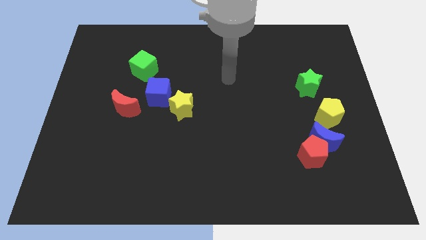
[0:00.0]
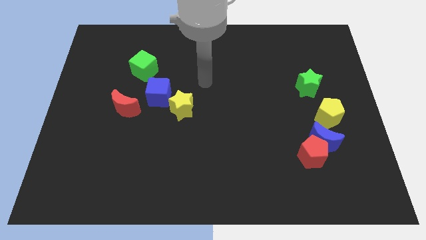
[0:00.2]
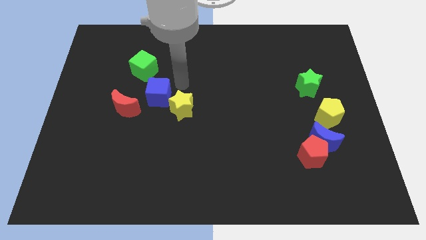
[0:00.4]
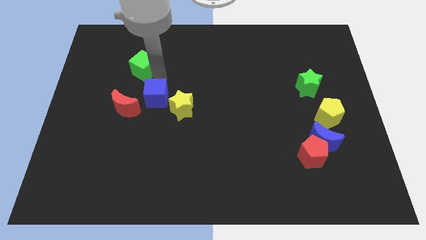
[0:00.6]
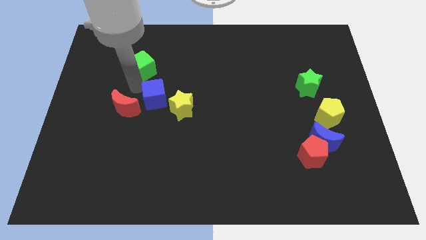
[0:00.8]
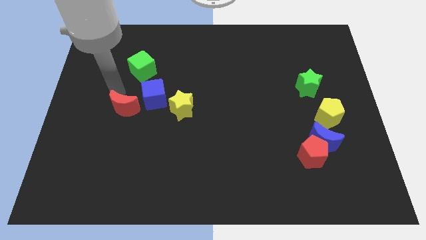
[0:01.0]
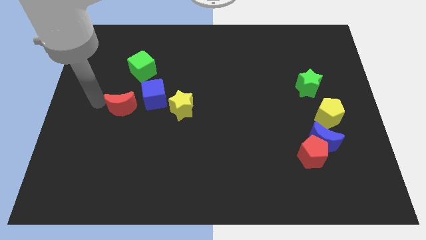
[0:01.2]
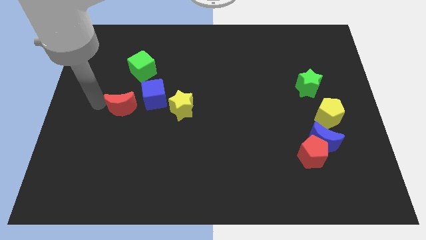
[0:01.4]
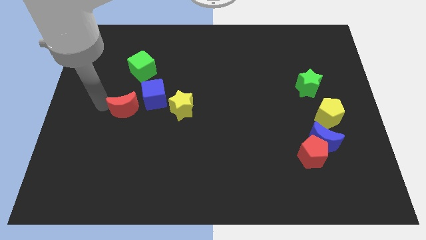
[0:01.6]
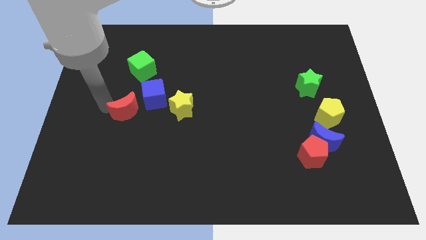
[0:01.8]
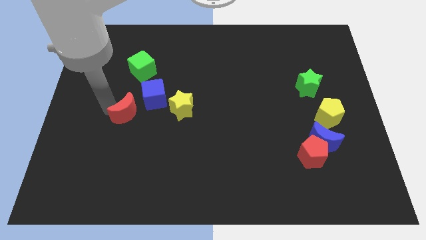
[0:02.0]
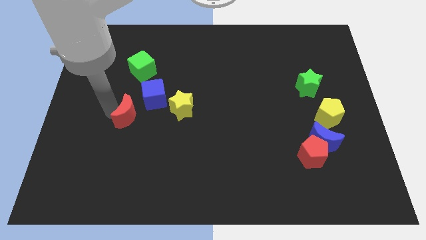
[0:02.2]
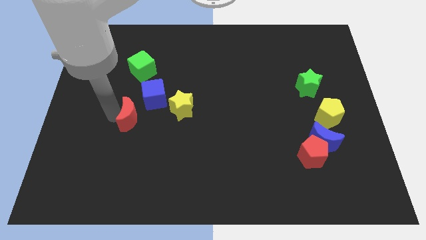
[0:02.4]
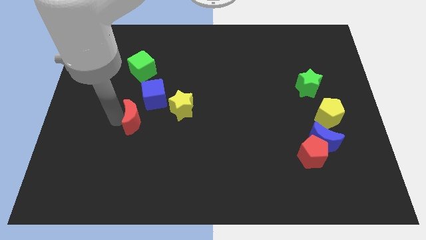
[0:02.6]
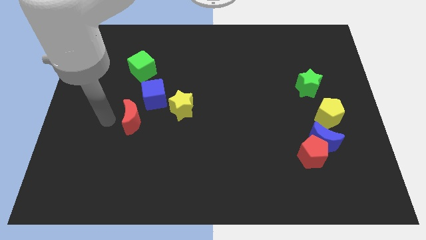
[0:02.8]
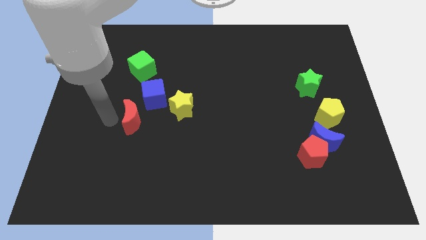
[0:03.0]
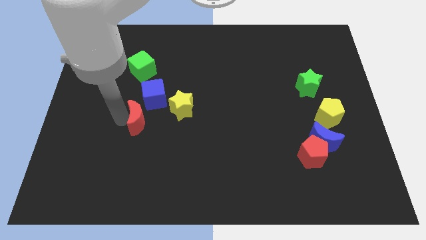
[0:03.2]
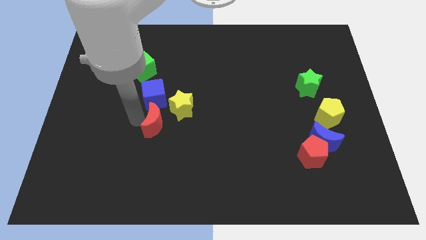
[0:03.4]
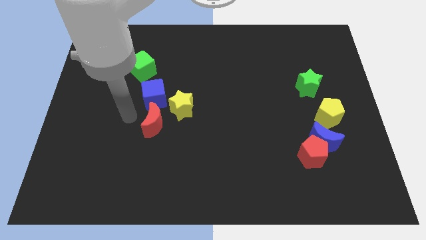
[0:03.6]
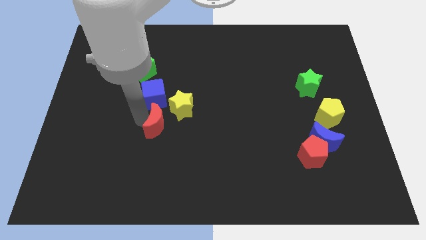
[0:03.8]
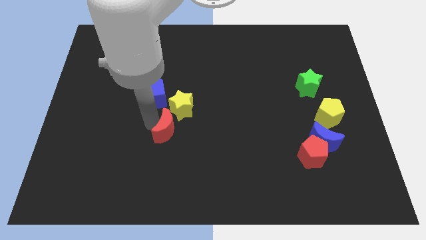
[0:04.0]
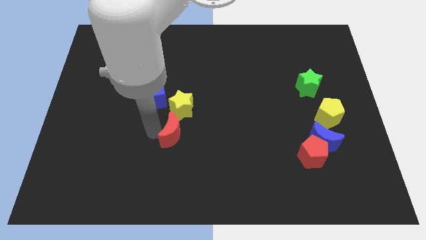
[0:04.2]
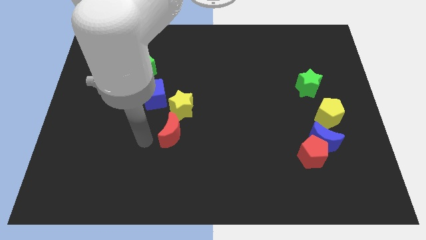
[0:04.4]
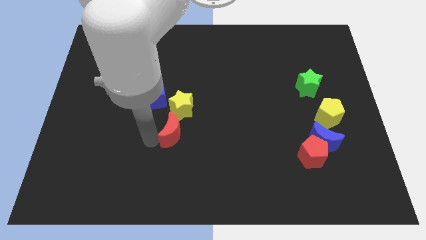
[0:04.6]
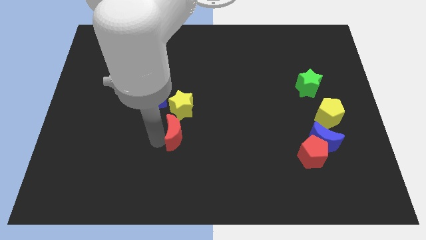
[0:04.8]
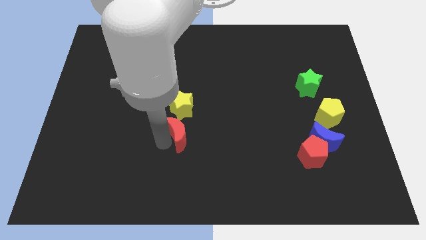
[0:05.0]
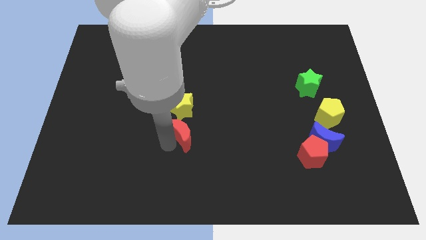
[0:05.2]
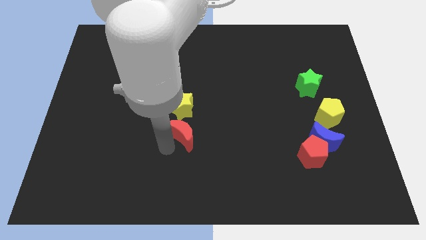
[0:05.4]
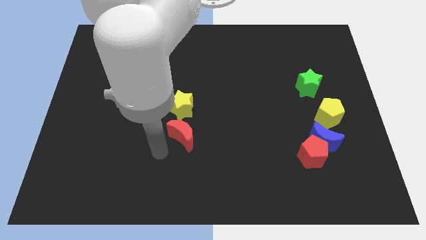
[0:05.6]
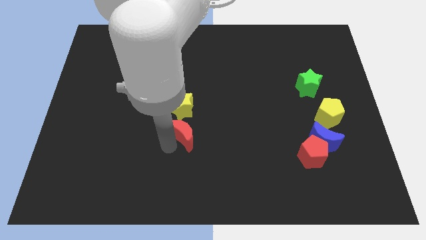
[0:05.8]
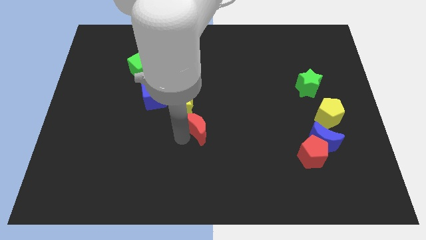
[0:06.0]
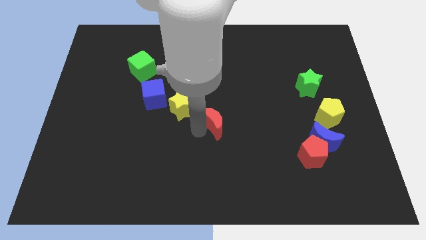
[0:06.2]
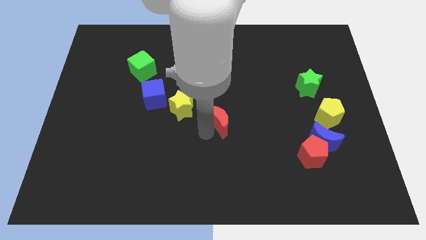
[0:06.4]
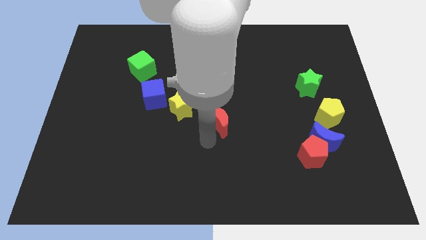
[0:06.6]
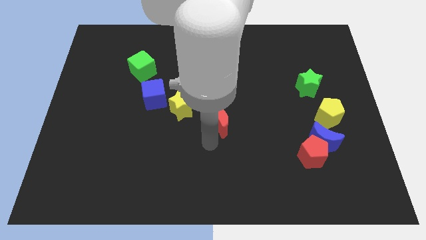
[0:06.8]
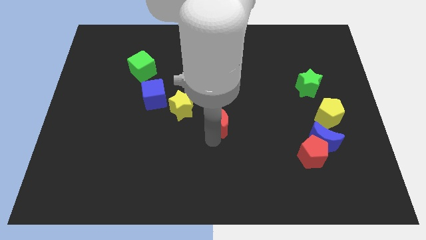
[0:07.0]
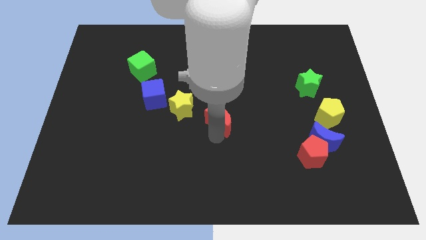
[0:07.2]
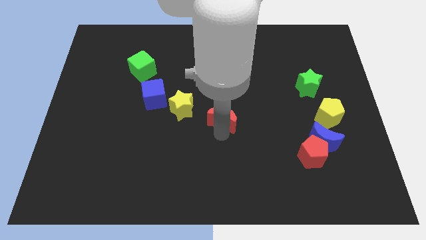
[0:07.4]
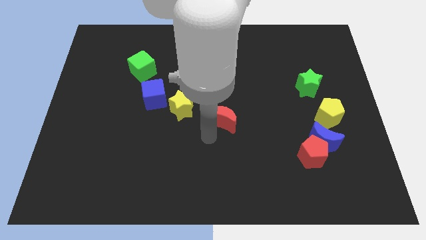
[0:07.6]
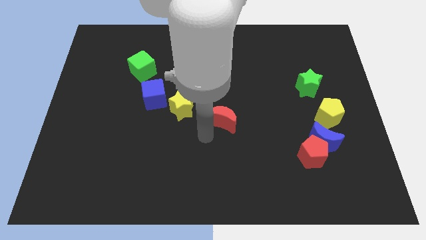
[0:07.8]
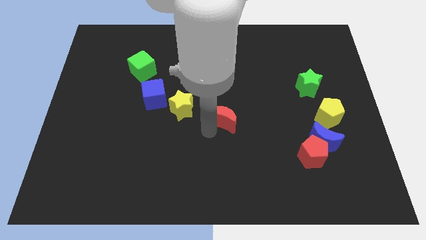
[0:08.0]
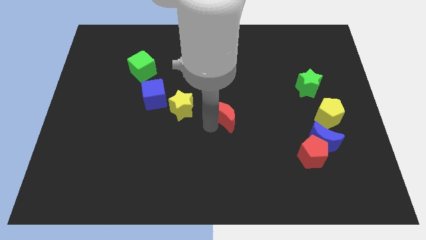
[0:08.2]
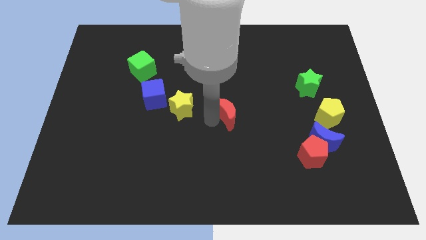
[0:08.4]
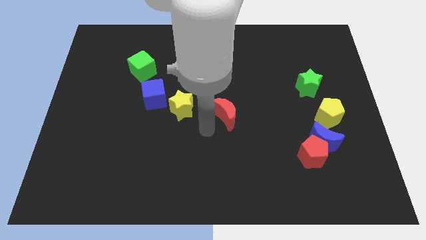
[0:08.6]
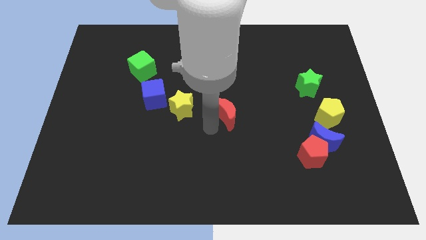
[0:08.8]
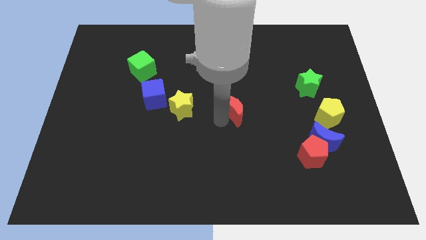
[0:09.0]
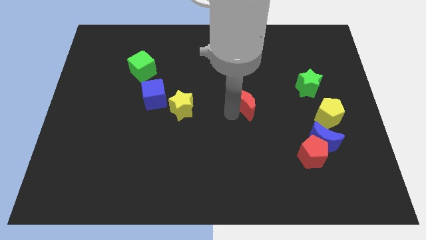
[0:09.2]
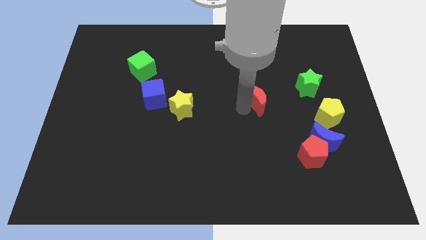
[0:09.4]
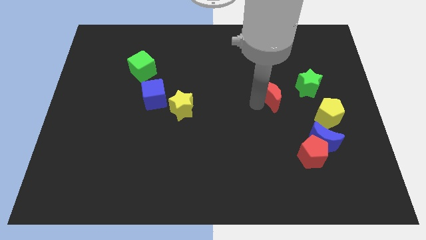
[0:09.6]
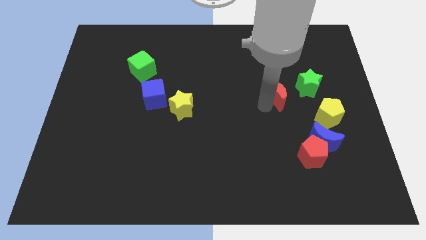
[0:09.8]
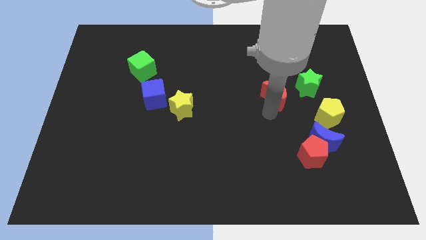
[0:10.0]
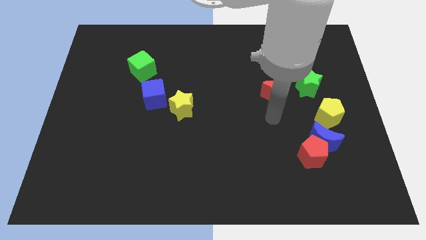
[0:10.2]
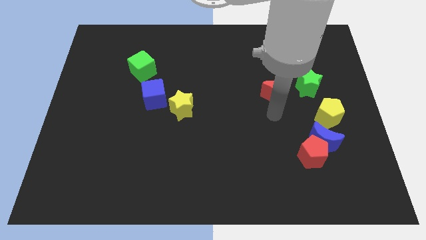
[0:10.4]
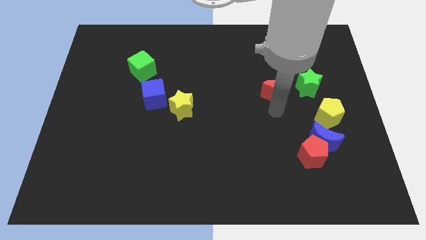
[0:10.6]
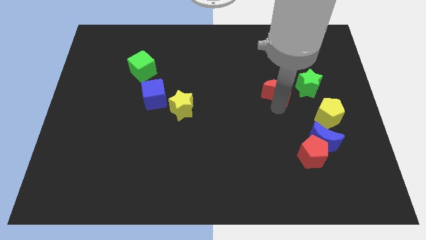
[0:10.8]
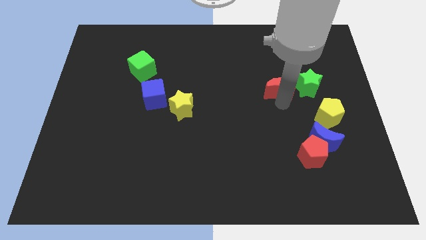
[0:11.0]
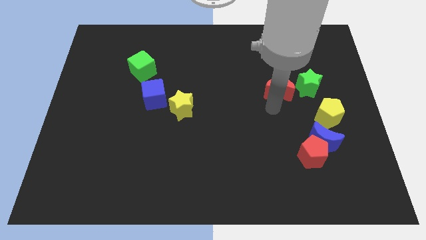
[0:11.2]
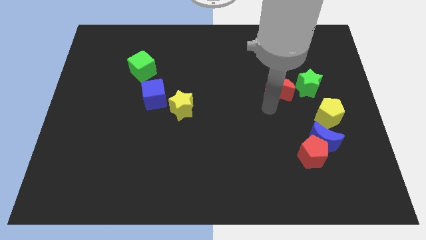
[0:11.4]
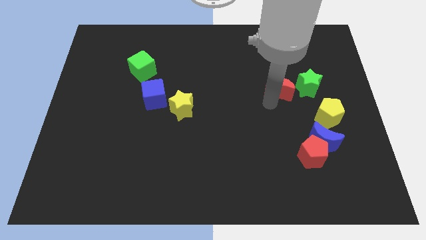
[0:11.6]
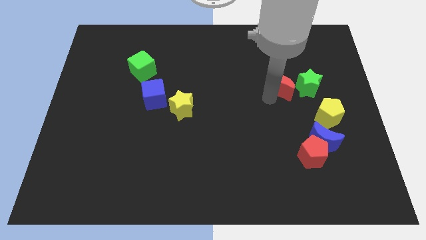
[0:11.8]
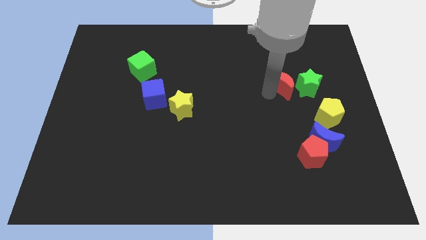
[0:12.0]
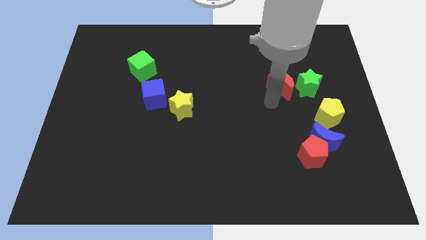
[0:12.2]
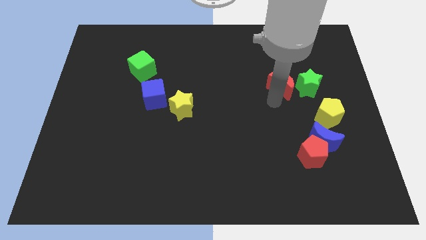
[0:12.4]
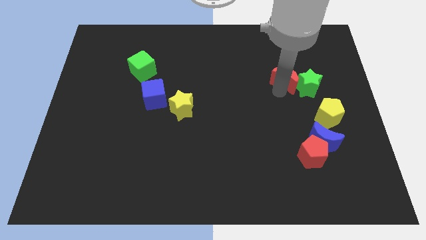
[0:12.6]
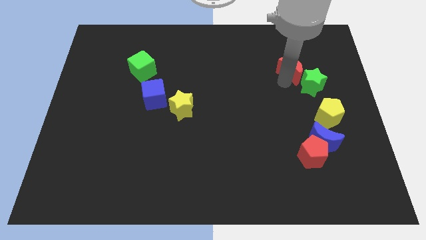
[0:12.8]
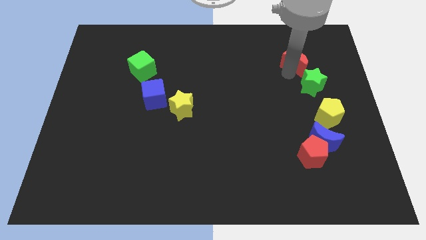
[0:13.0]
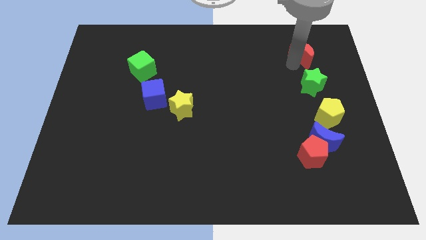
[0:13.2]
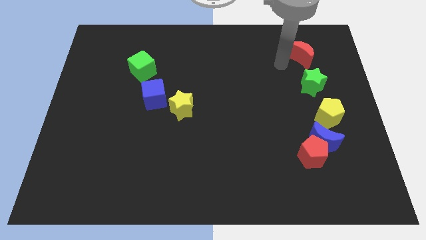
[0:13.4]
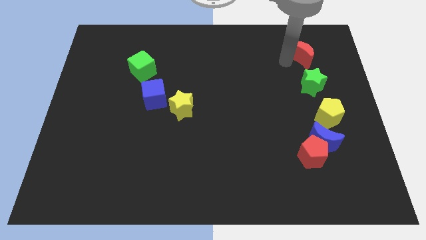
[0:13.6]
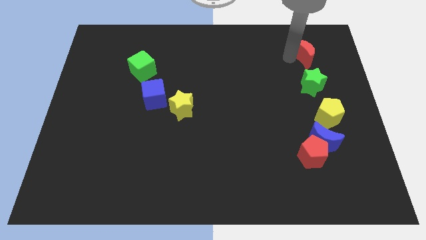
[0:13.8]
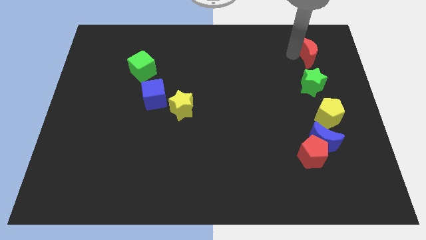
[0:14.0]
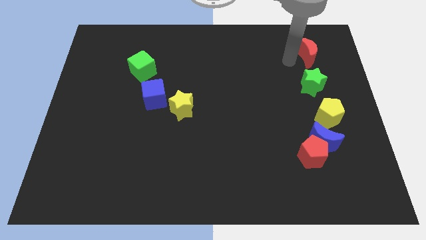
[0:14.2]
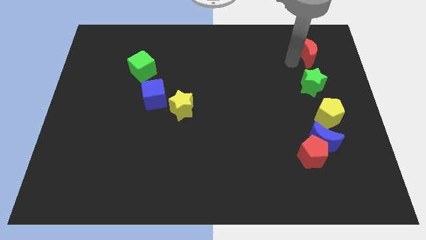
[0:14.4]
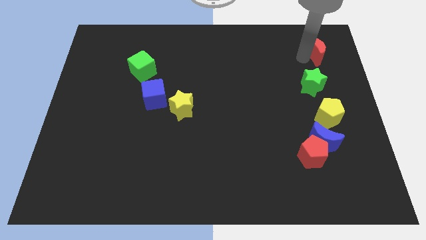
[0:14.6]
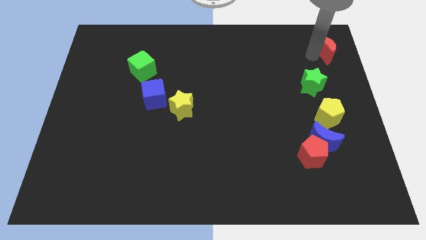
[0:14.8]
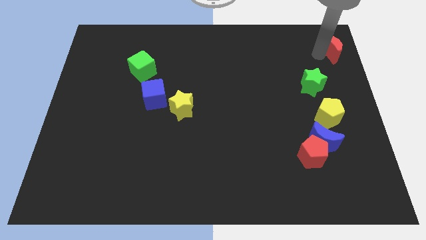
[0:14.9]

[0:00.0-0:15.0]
move the red moon to the top right
